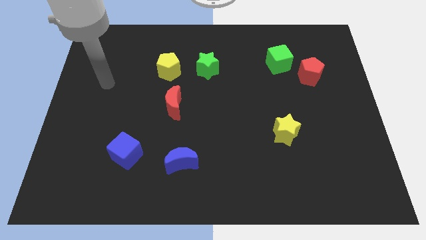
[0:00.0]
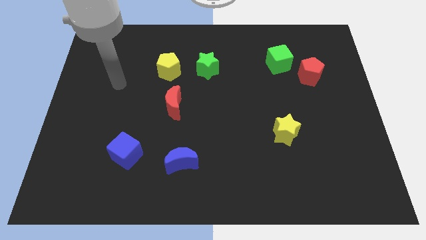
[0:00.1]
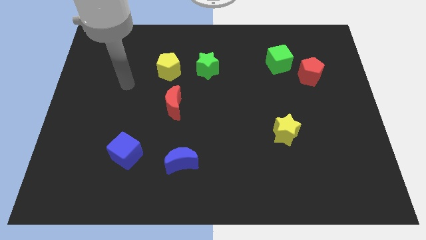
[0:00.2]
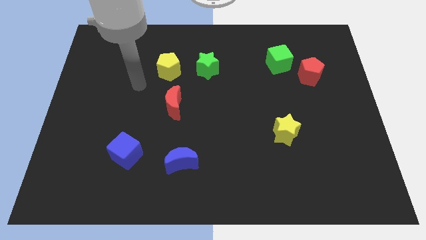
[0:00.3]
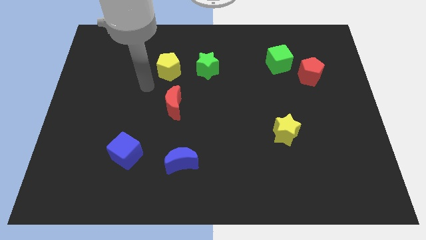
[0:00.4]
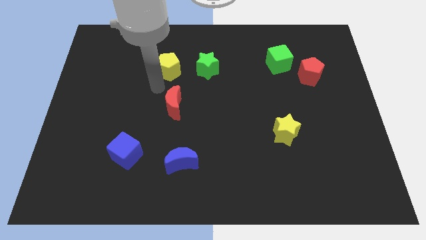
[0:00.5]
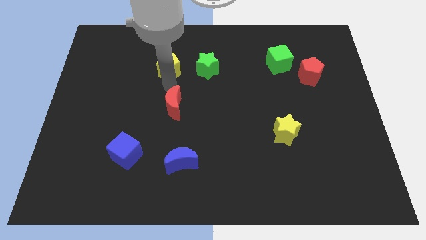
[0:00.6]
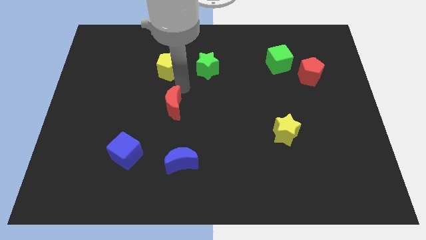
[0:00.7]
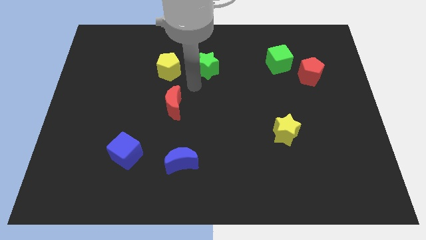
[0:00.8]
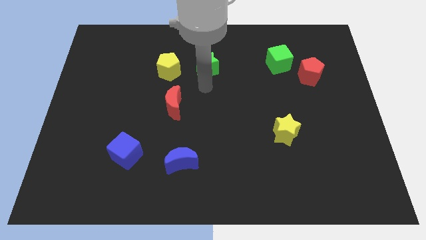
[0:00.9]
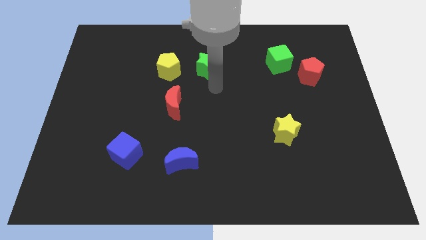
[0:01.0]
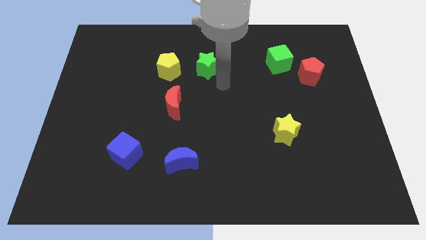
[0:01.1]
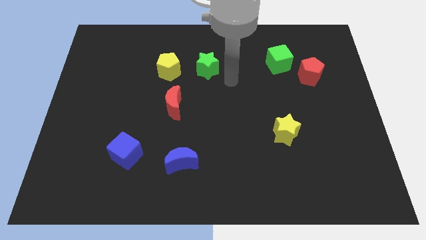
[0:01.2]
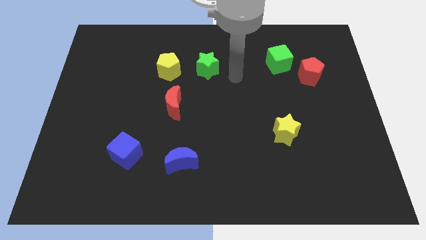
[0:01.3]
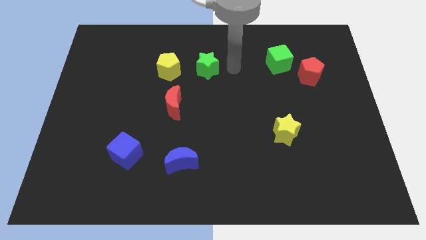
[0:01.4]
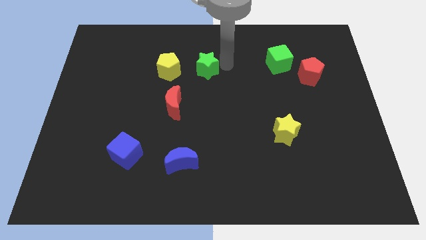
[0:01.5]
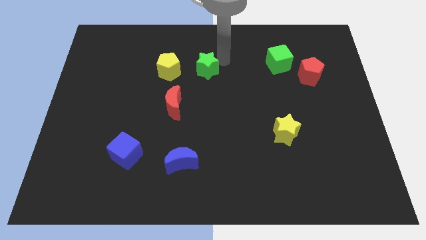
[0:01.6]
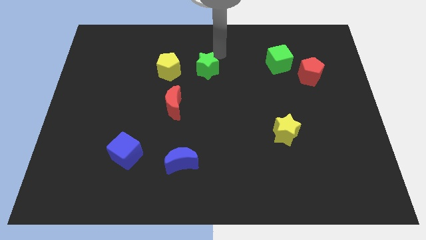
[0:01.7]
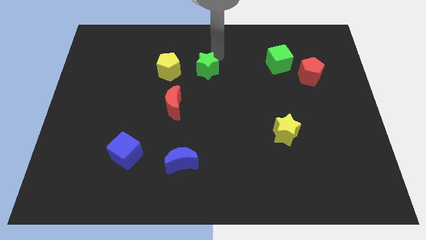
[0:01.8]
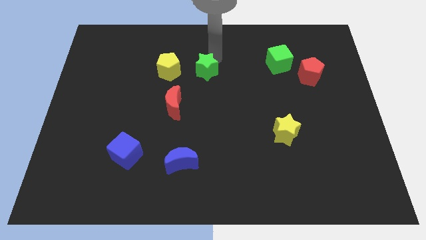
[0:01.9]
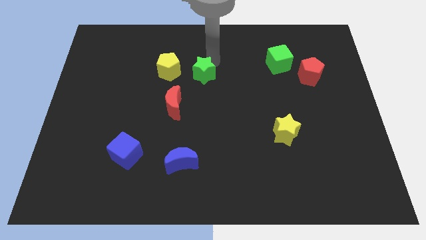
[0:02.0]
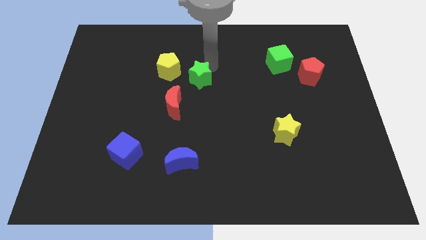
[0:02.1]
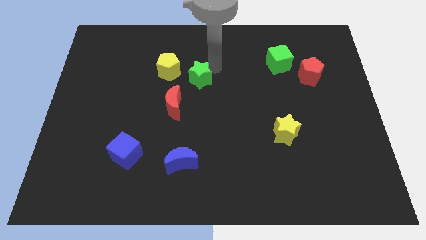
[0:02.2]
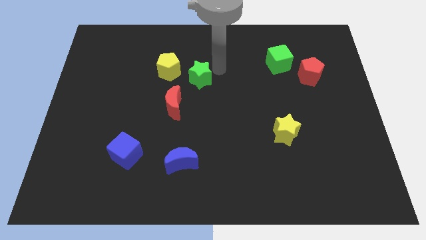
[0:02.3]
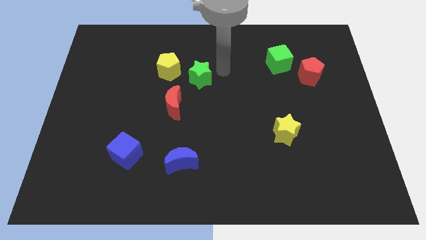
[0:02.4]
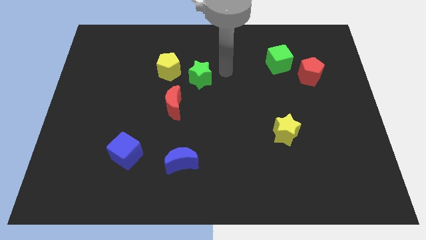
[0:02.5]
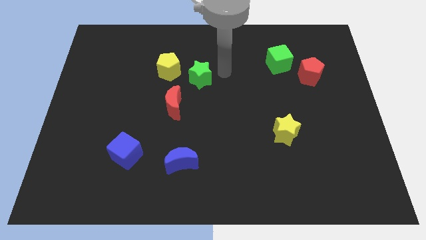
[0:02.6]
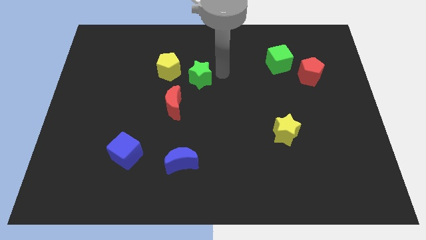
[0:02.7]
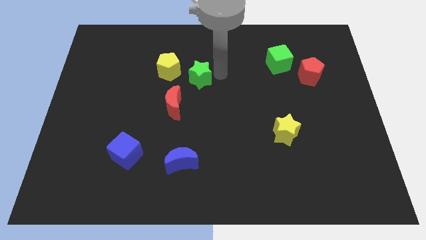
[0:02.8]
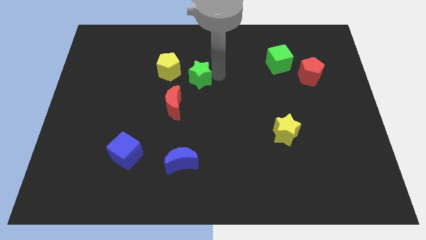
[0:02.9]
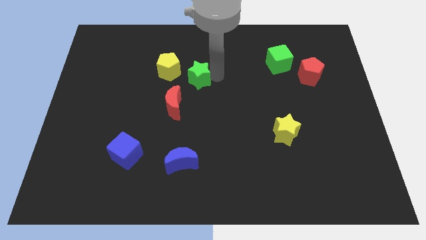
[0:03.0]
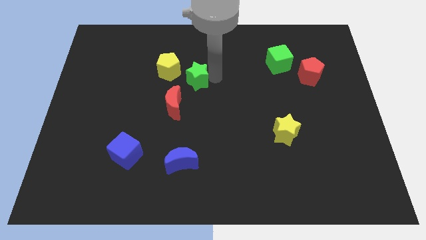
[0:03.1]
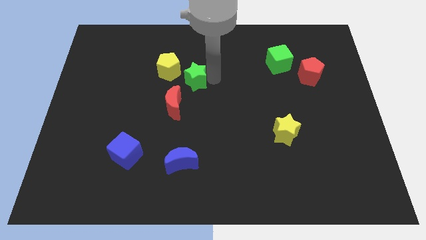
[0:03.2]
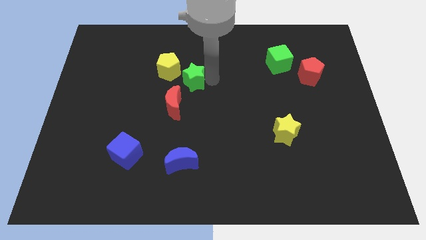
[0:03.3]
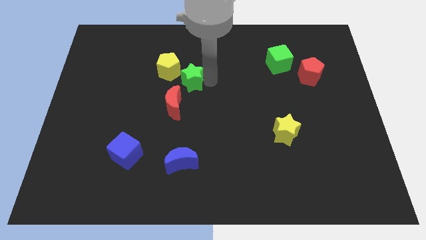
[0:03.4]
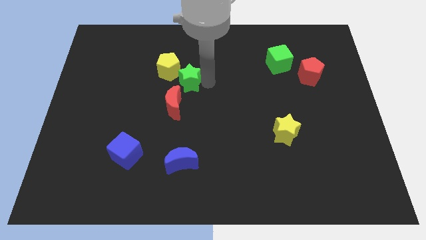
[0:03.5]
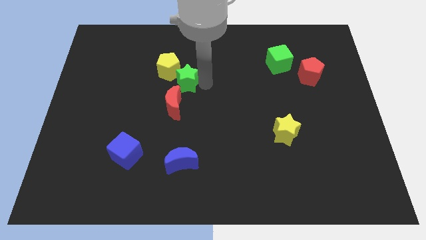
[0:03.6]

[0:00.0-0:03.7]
push the green star diagonally down and to the left somewhat

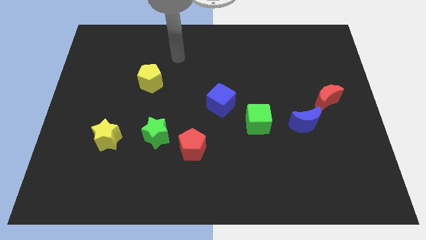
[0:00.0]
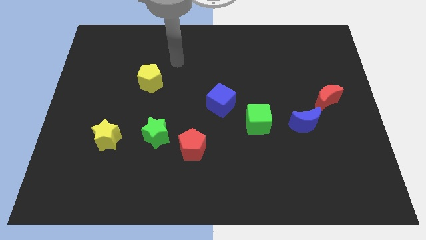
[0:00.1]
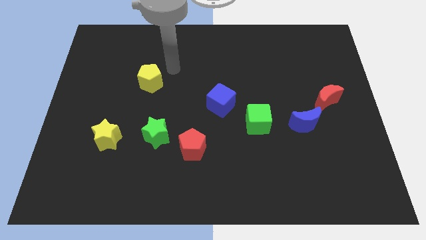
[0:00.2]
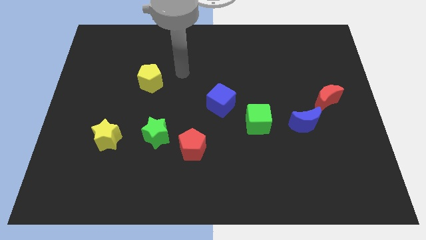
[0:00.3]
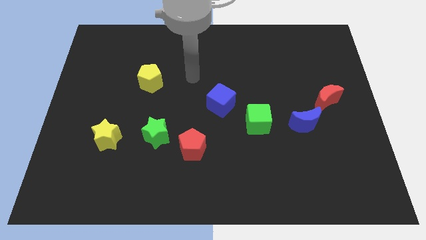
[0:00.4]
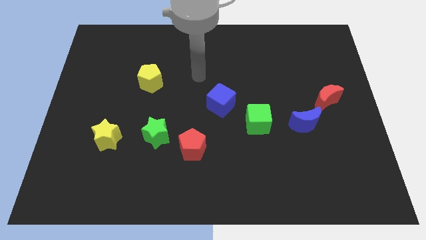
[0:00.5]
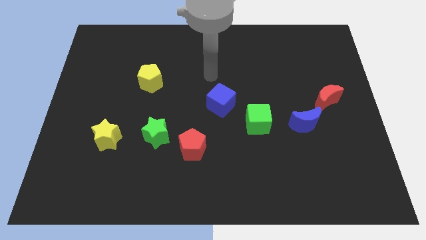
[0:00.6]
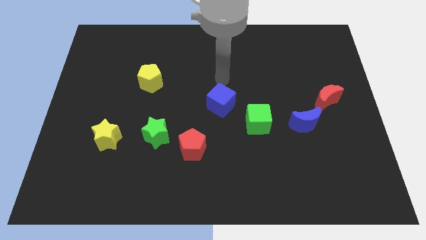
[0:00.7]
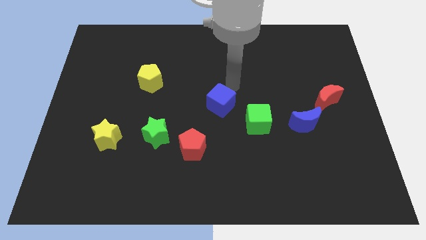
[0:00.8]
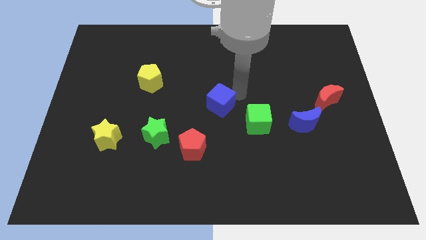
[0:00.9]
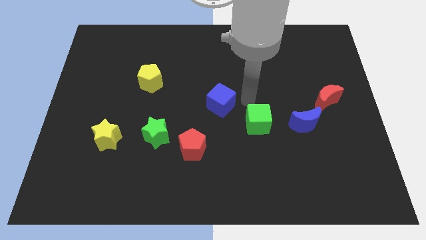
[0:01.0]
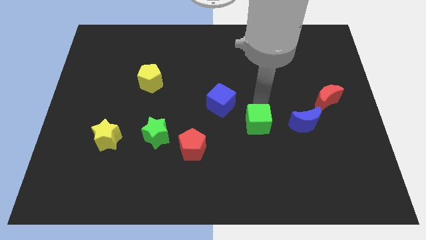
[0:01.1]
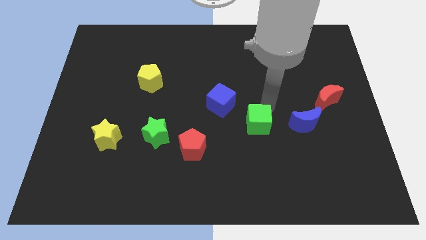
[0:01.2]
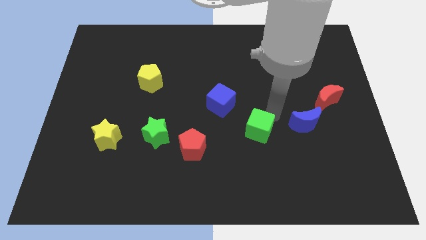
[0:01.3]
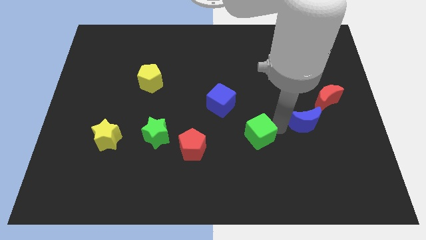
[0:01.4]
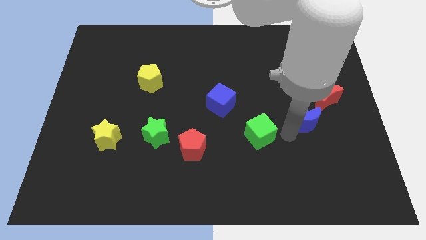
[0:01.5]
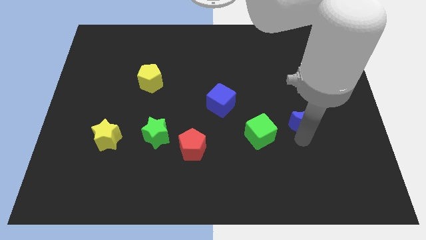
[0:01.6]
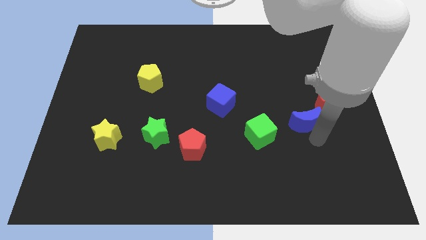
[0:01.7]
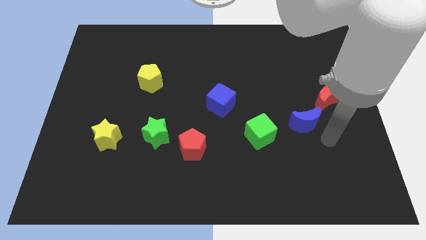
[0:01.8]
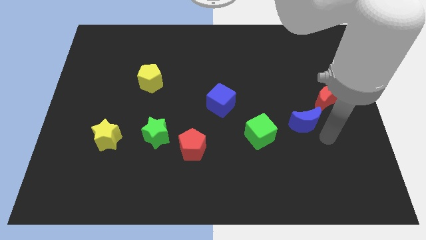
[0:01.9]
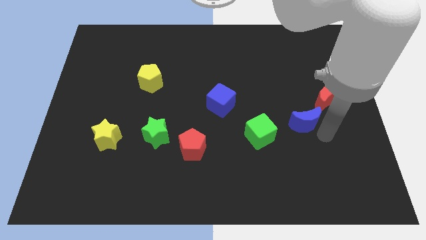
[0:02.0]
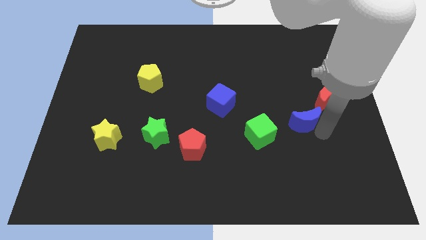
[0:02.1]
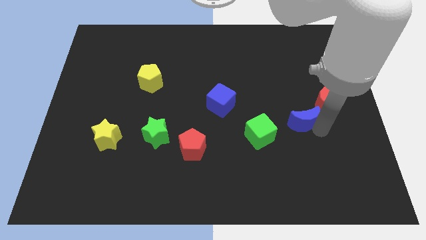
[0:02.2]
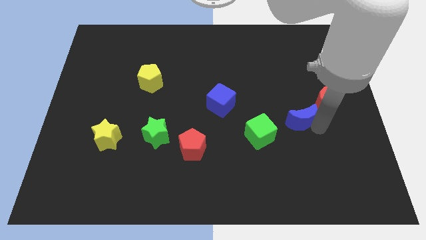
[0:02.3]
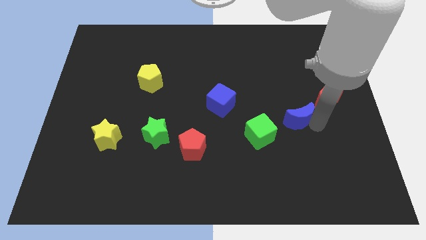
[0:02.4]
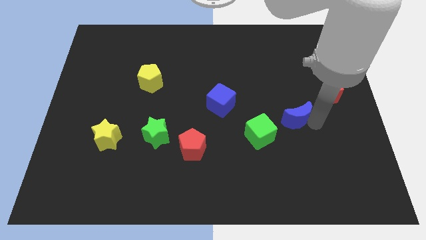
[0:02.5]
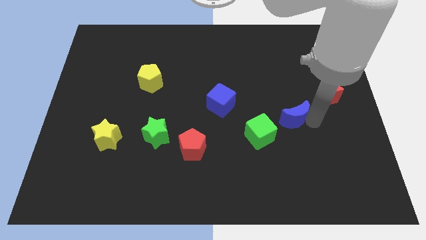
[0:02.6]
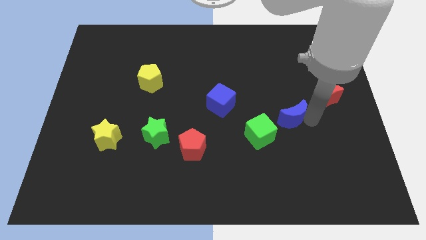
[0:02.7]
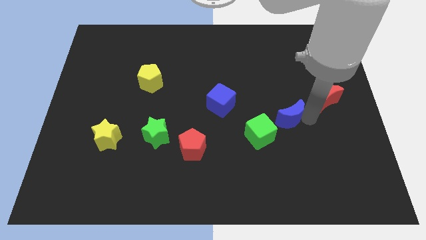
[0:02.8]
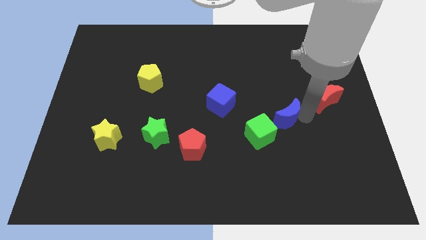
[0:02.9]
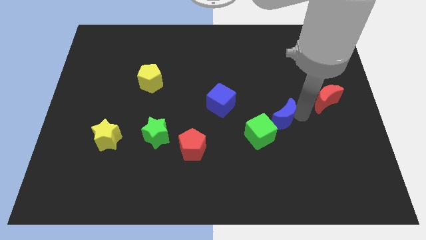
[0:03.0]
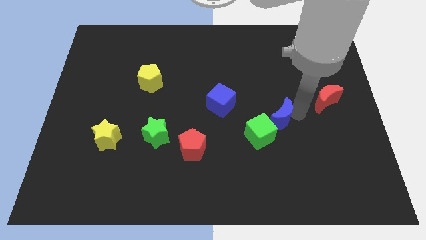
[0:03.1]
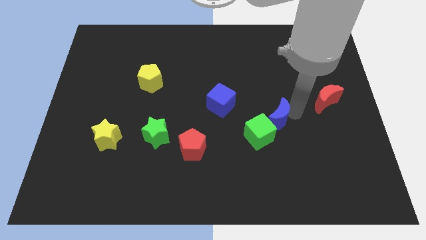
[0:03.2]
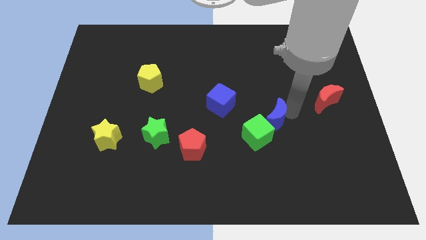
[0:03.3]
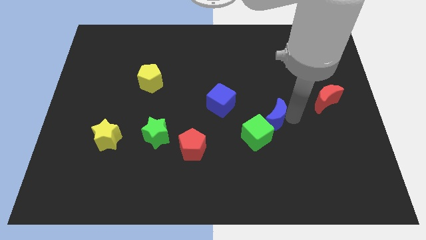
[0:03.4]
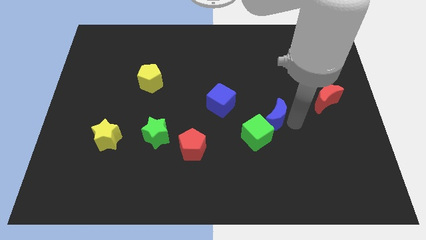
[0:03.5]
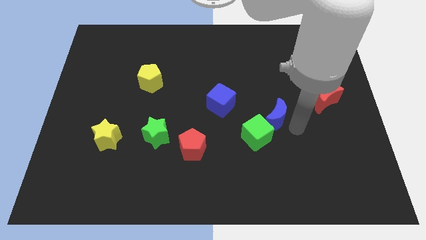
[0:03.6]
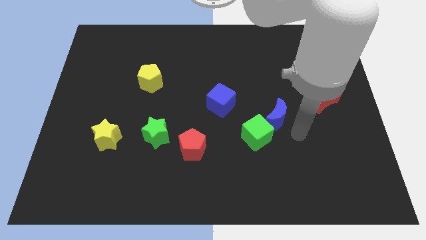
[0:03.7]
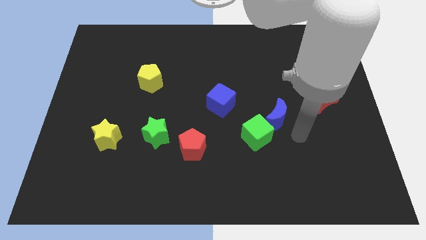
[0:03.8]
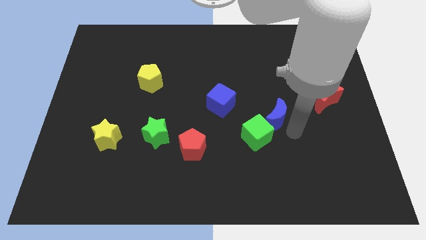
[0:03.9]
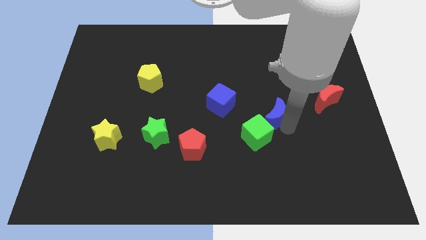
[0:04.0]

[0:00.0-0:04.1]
slide the blue moon to the left somewhat

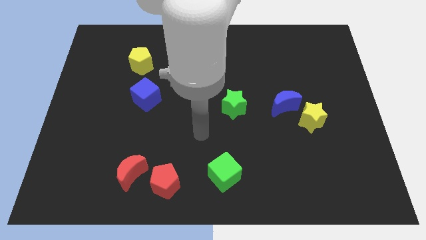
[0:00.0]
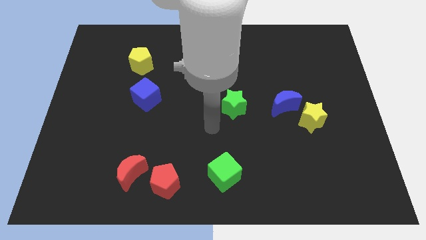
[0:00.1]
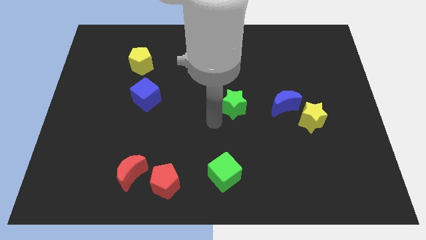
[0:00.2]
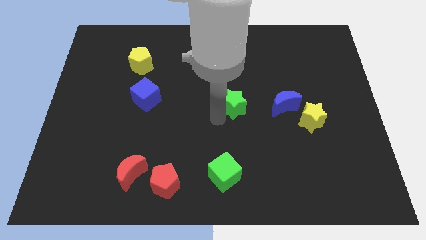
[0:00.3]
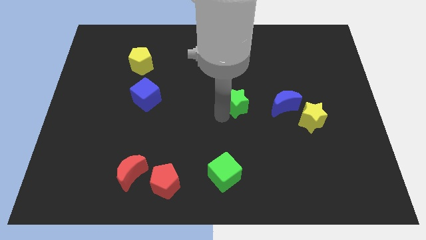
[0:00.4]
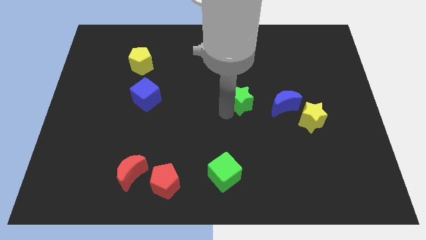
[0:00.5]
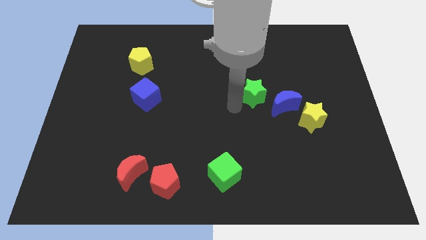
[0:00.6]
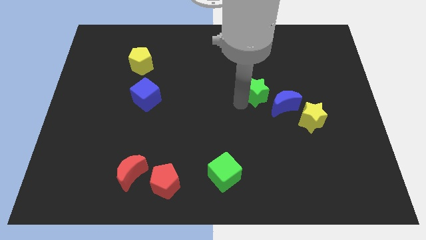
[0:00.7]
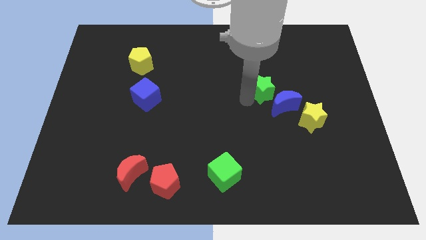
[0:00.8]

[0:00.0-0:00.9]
slide the green star up and right a bit
